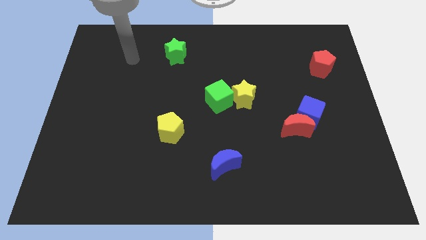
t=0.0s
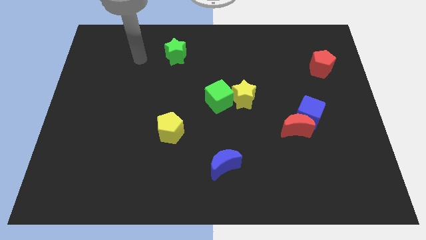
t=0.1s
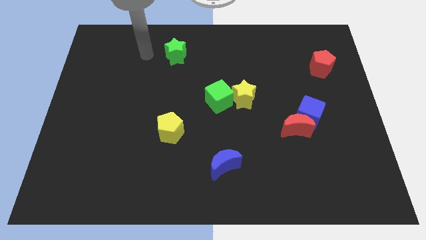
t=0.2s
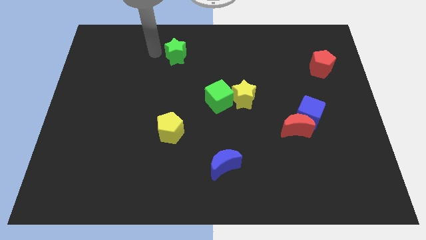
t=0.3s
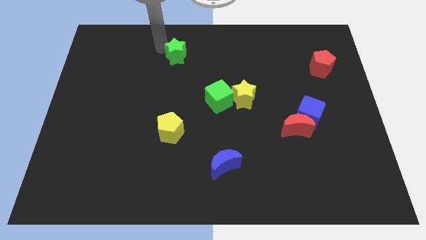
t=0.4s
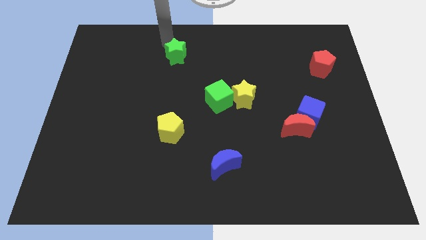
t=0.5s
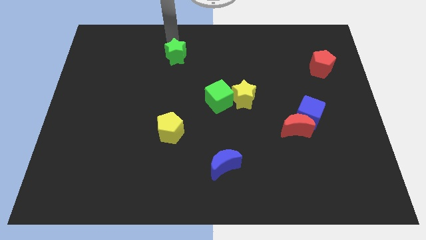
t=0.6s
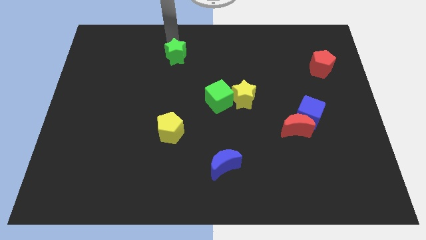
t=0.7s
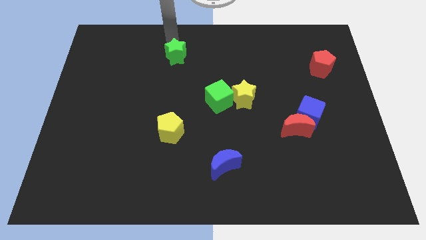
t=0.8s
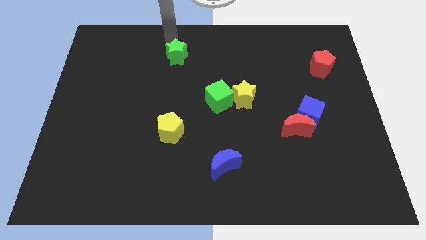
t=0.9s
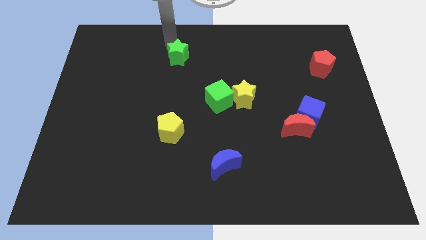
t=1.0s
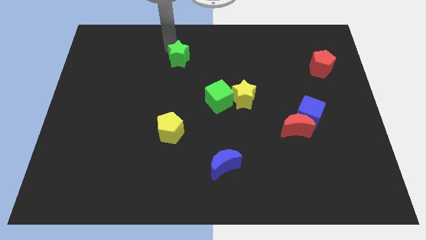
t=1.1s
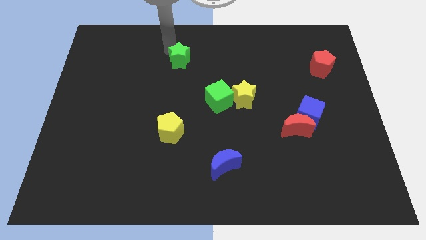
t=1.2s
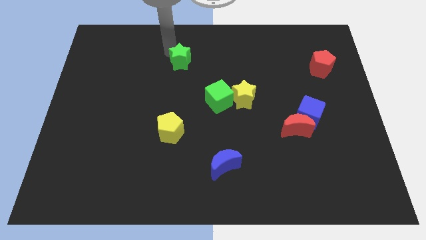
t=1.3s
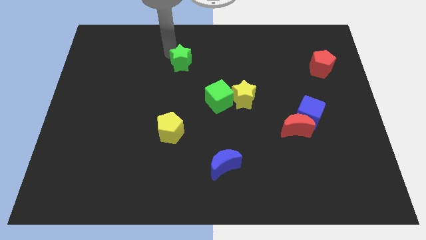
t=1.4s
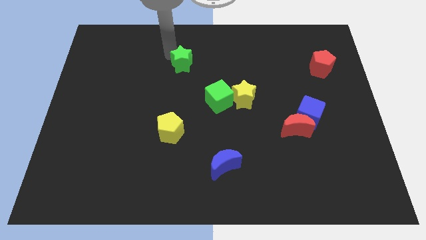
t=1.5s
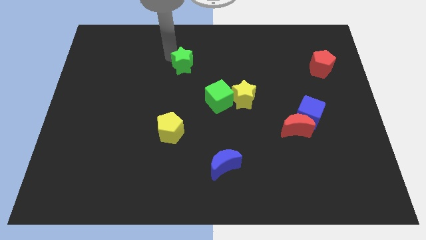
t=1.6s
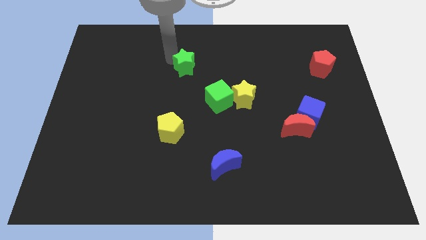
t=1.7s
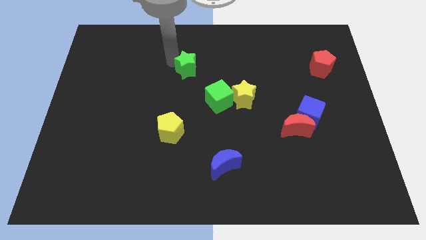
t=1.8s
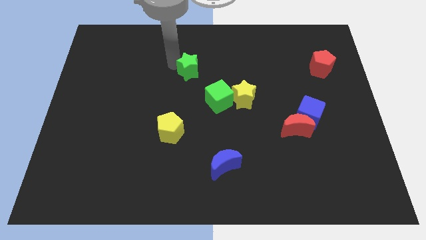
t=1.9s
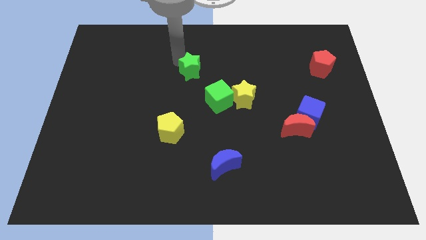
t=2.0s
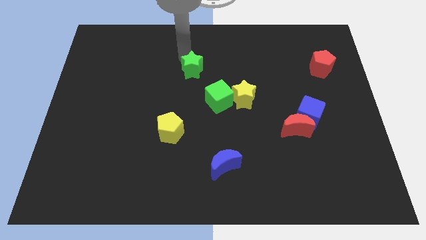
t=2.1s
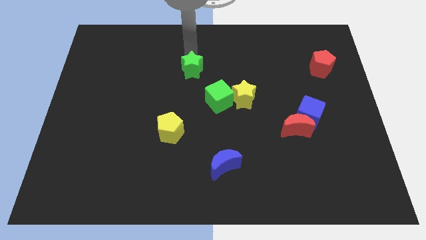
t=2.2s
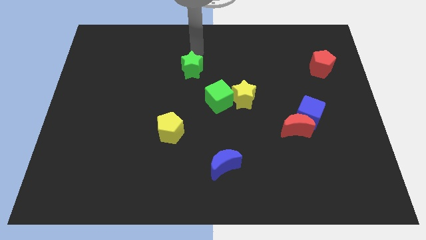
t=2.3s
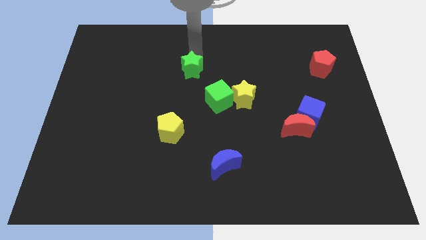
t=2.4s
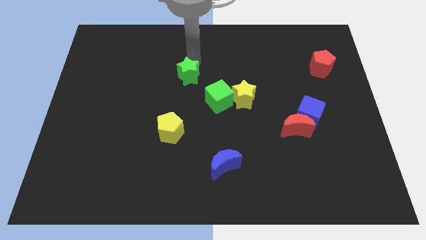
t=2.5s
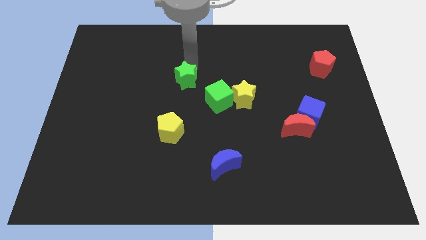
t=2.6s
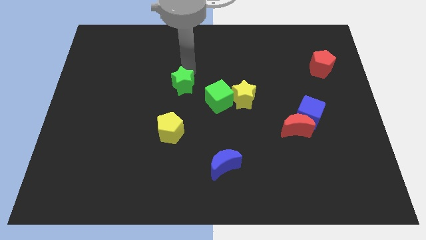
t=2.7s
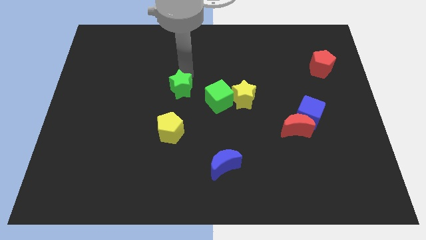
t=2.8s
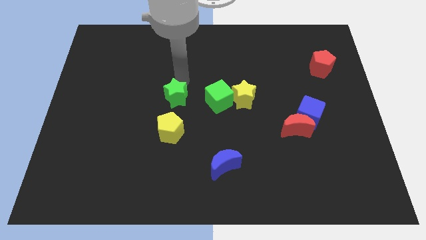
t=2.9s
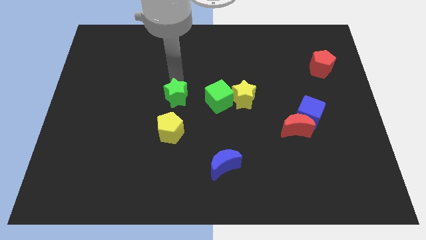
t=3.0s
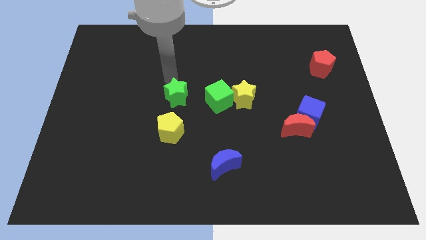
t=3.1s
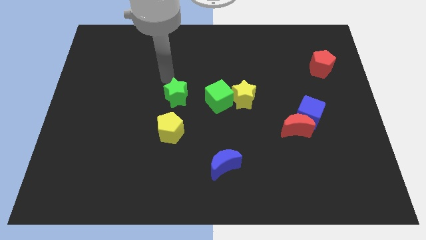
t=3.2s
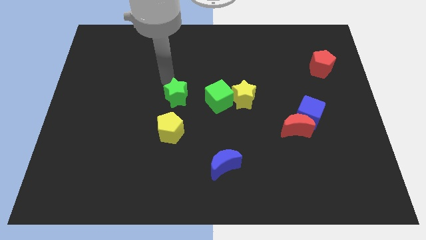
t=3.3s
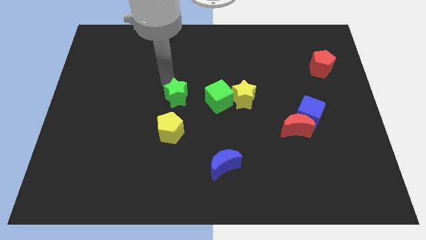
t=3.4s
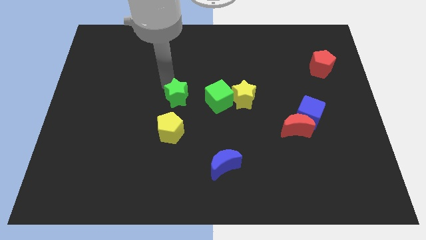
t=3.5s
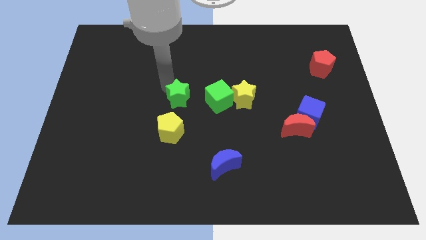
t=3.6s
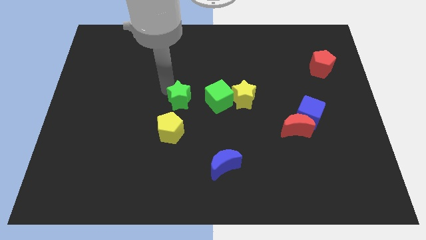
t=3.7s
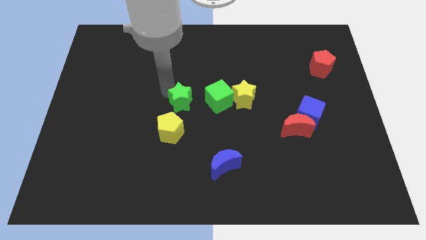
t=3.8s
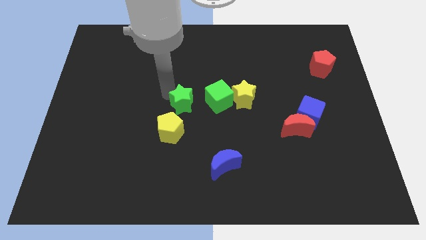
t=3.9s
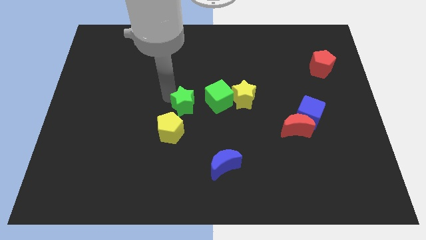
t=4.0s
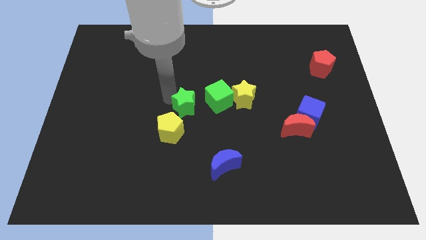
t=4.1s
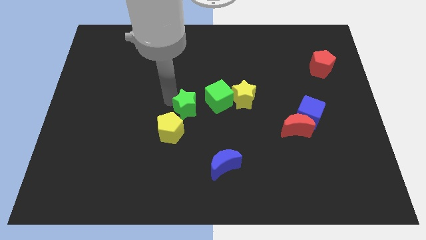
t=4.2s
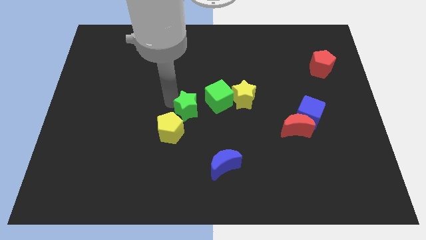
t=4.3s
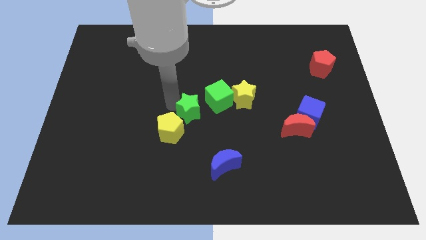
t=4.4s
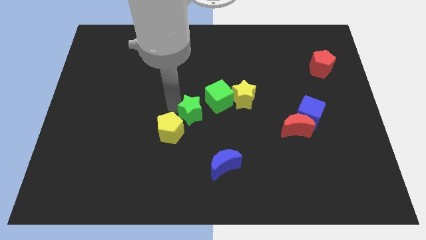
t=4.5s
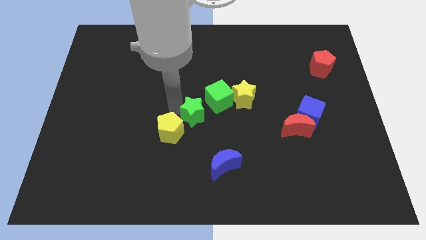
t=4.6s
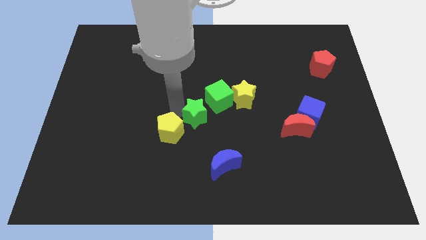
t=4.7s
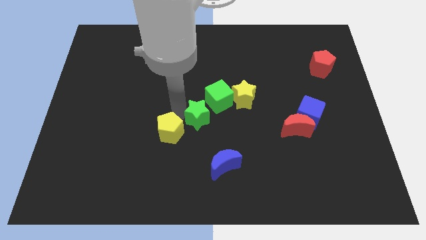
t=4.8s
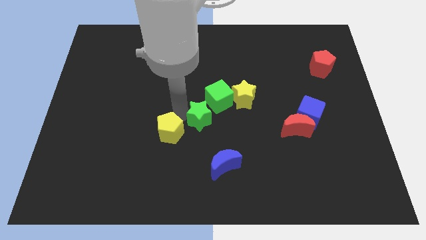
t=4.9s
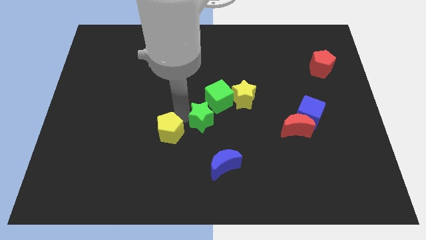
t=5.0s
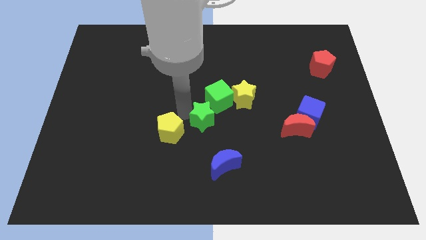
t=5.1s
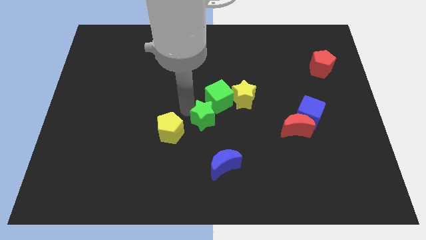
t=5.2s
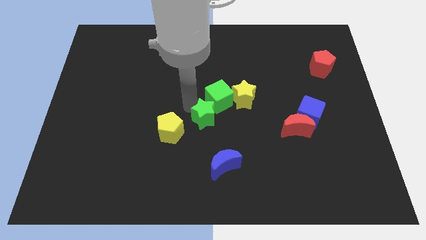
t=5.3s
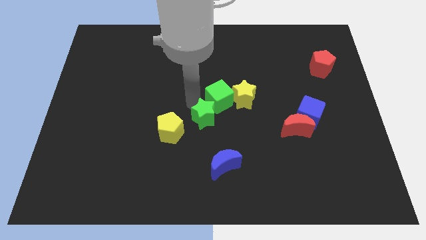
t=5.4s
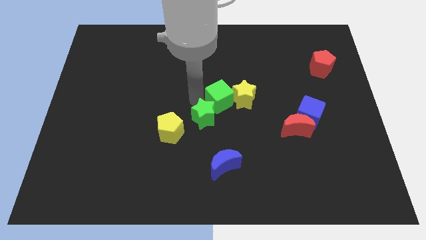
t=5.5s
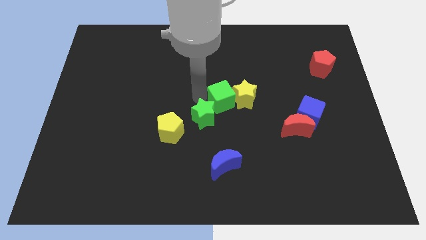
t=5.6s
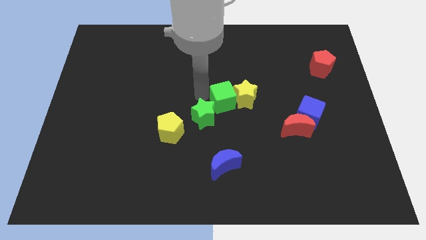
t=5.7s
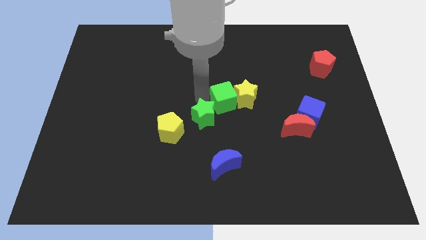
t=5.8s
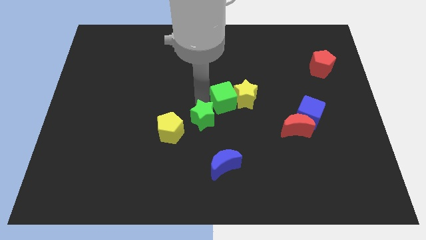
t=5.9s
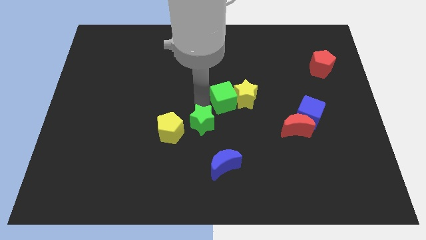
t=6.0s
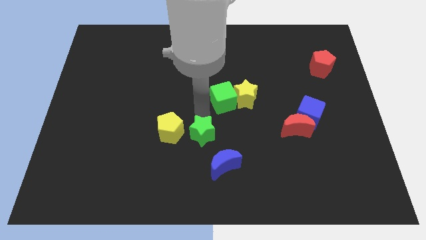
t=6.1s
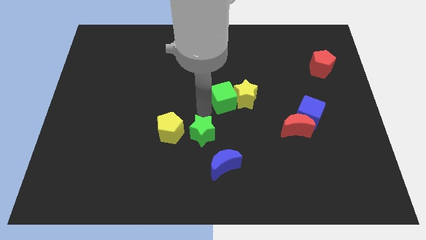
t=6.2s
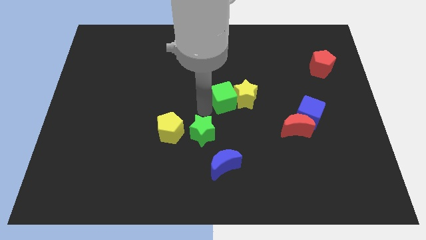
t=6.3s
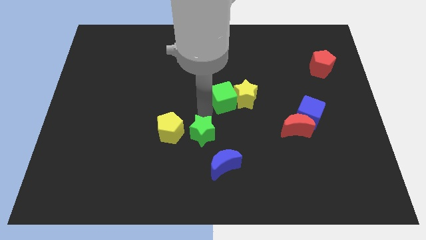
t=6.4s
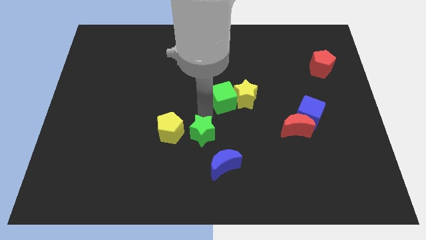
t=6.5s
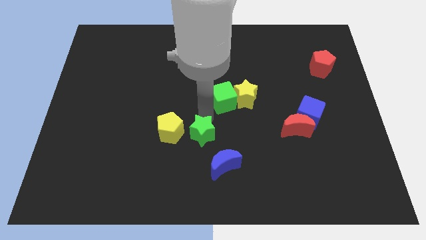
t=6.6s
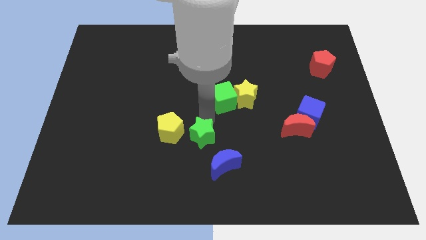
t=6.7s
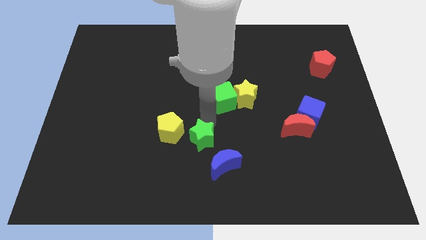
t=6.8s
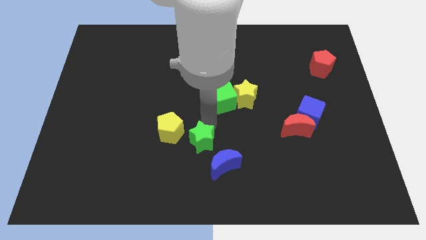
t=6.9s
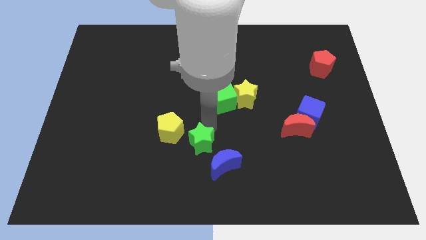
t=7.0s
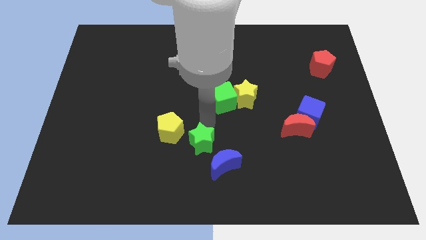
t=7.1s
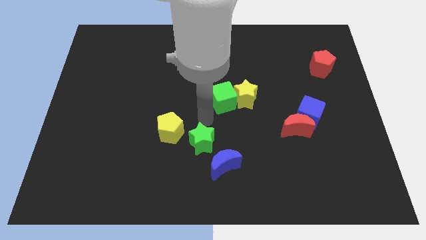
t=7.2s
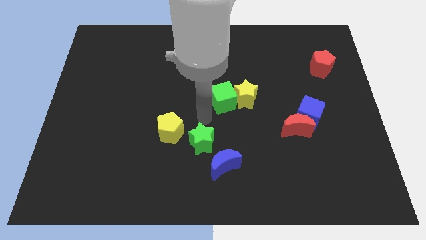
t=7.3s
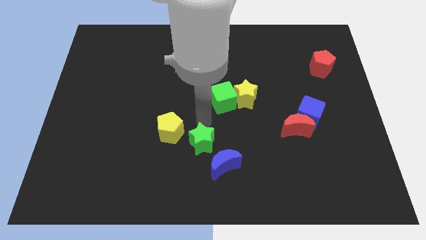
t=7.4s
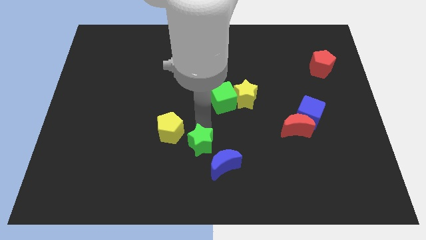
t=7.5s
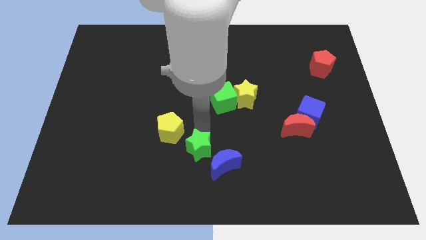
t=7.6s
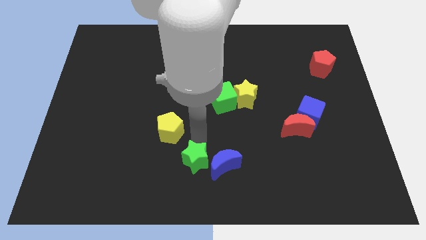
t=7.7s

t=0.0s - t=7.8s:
move the green star to the bottom side
